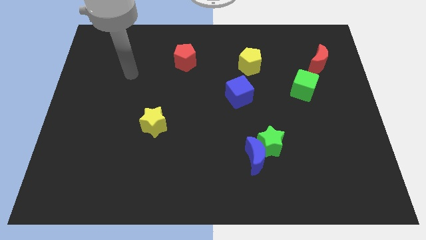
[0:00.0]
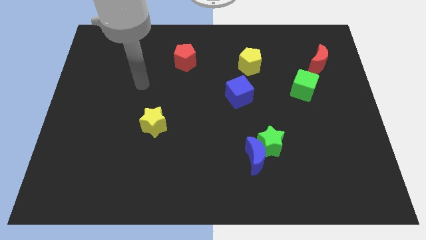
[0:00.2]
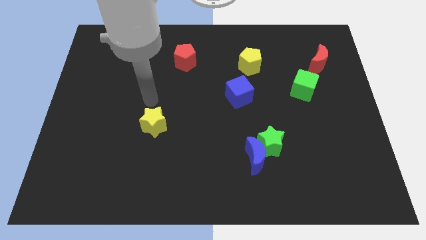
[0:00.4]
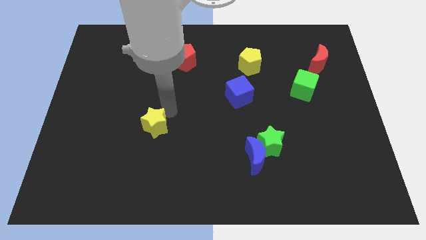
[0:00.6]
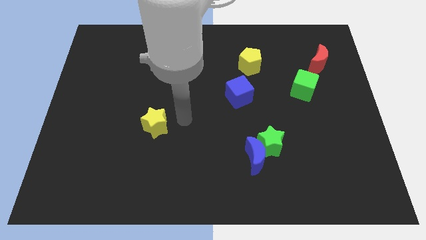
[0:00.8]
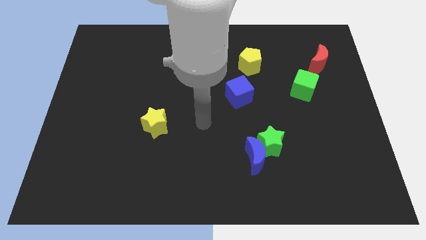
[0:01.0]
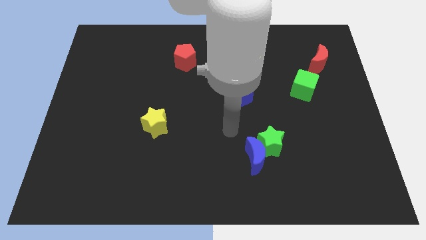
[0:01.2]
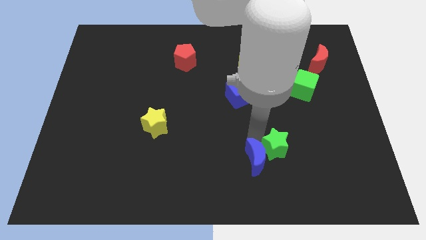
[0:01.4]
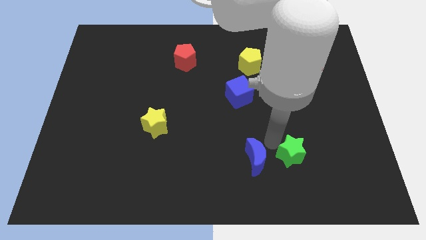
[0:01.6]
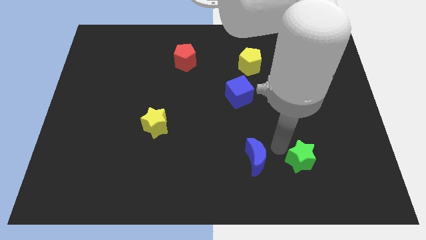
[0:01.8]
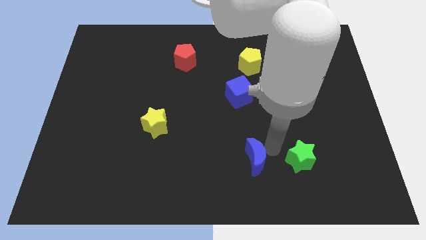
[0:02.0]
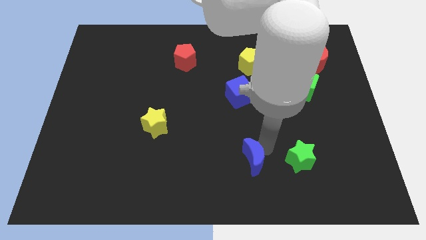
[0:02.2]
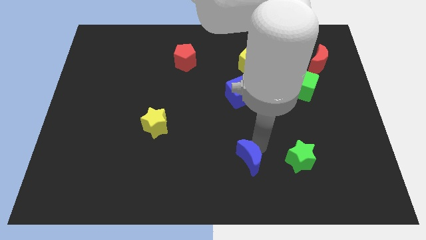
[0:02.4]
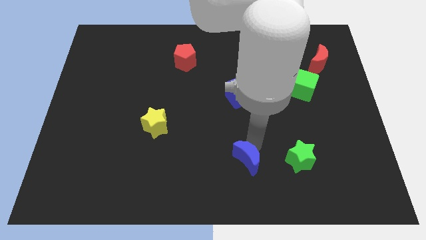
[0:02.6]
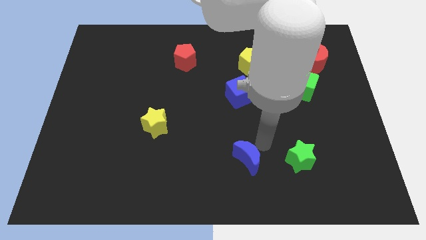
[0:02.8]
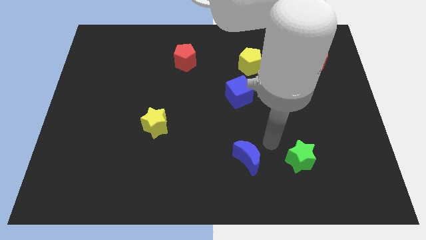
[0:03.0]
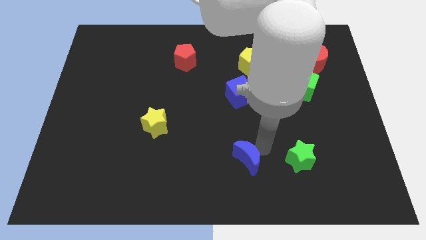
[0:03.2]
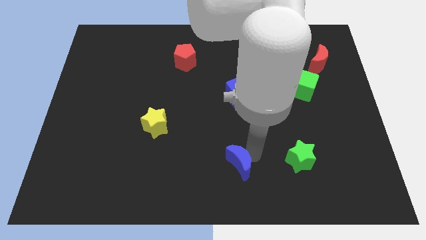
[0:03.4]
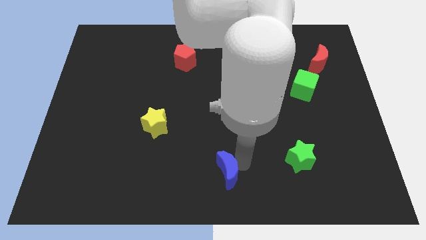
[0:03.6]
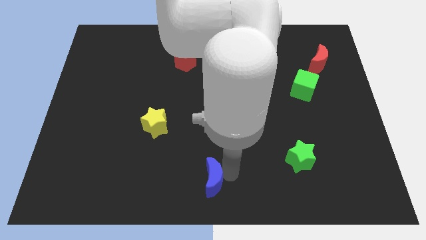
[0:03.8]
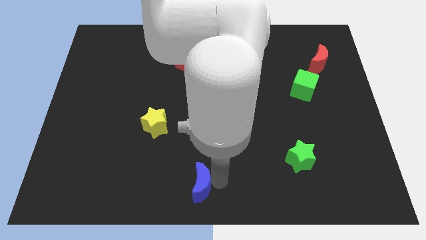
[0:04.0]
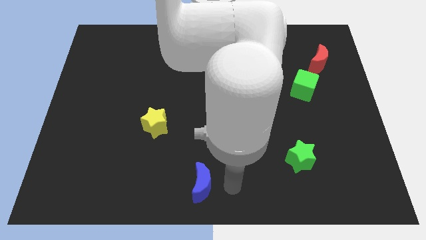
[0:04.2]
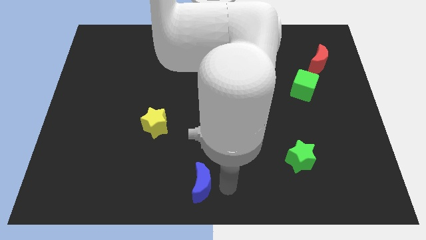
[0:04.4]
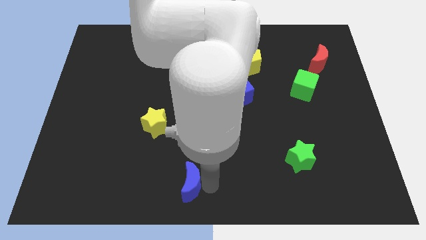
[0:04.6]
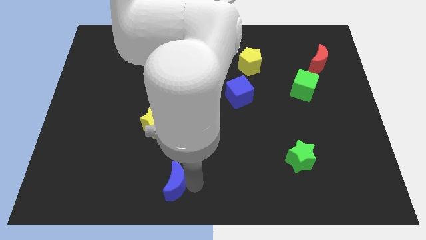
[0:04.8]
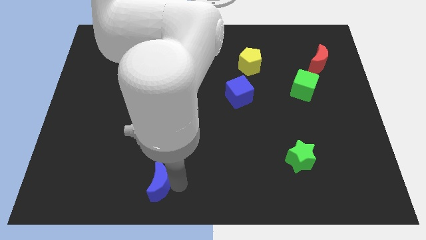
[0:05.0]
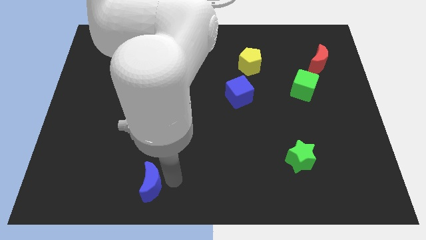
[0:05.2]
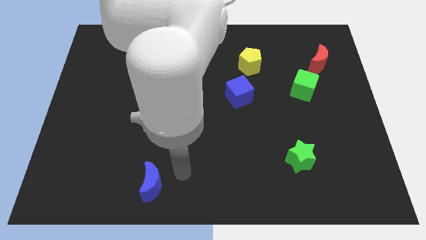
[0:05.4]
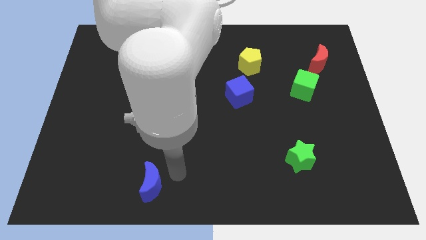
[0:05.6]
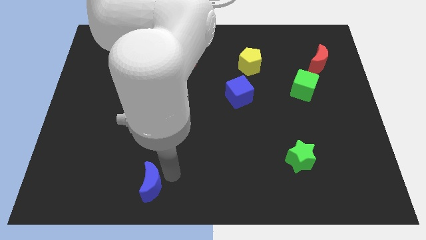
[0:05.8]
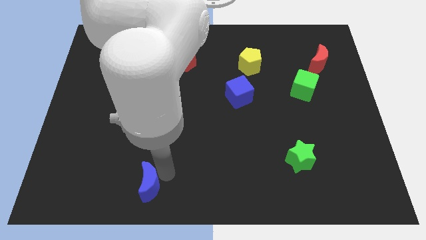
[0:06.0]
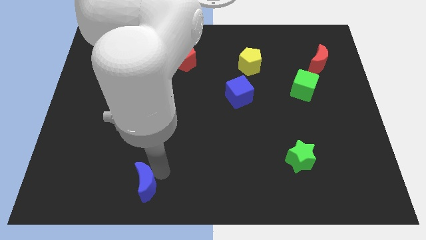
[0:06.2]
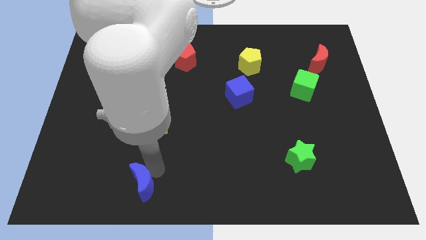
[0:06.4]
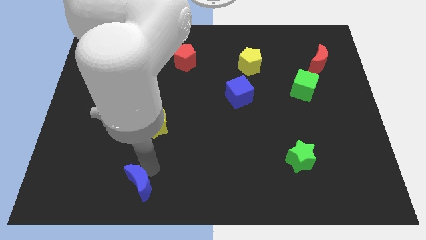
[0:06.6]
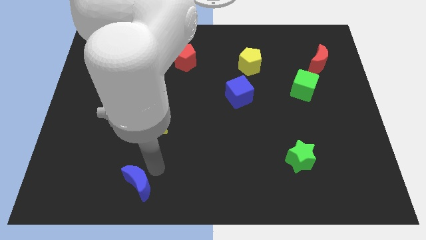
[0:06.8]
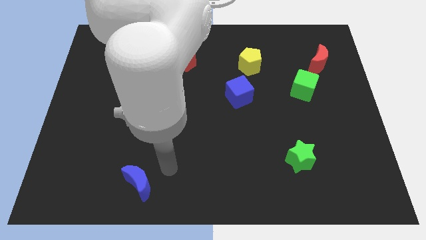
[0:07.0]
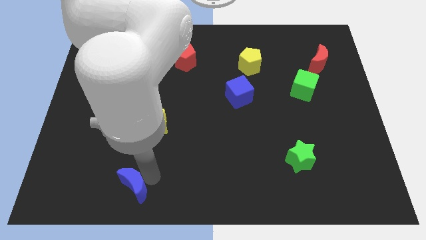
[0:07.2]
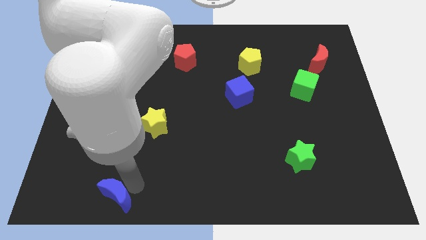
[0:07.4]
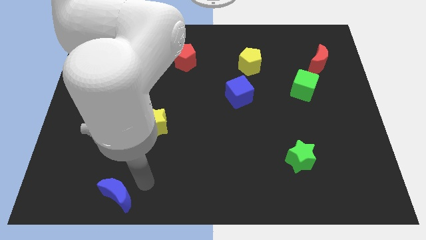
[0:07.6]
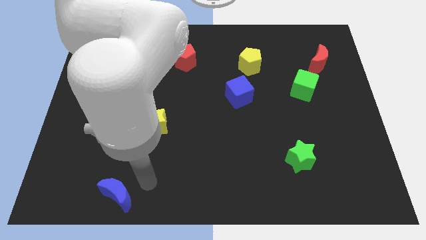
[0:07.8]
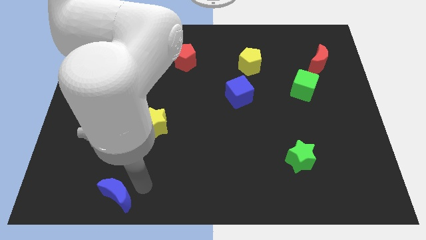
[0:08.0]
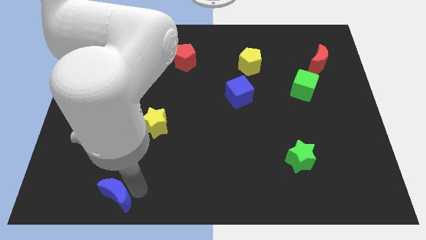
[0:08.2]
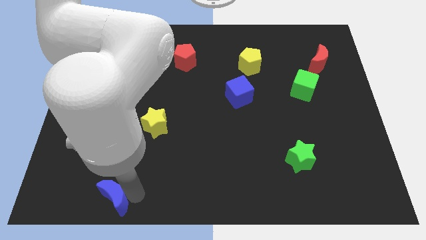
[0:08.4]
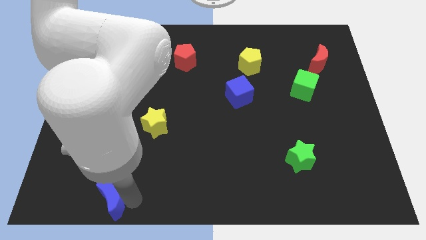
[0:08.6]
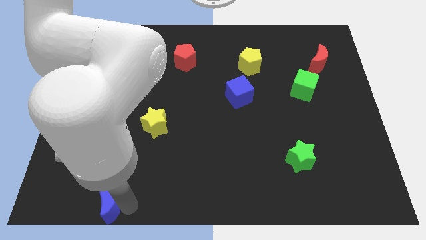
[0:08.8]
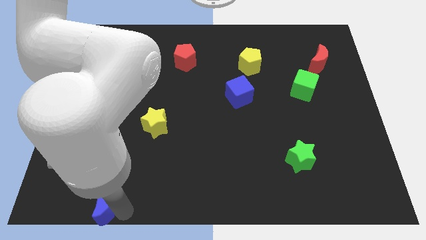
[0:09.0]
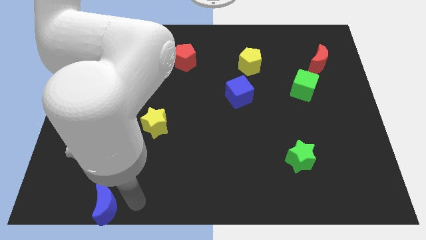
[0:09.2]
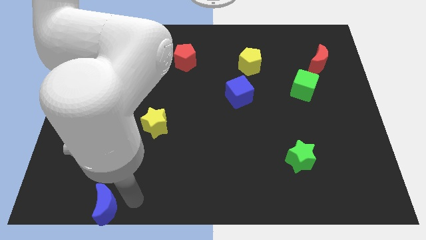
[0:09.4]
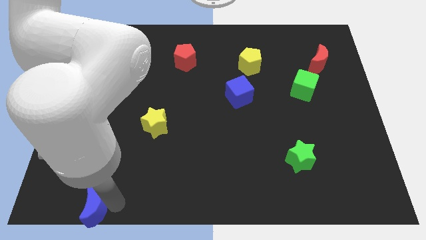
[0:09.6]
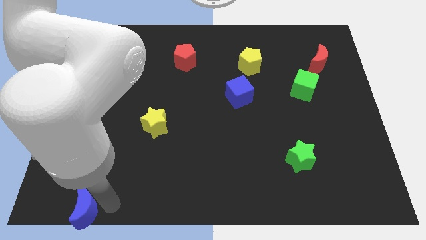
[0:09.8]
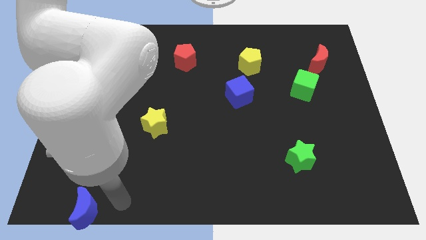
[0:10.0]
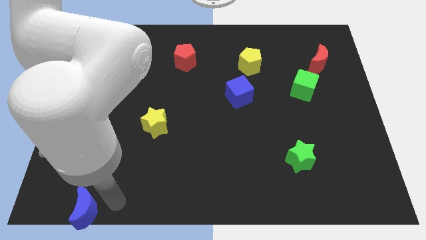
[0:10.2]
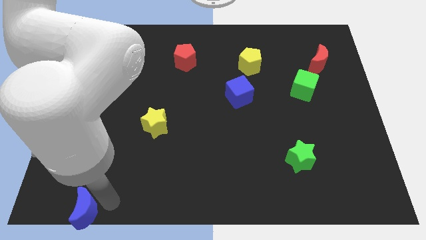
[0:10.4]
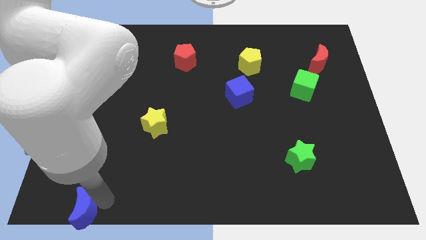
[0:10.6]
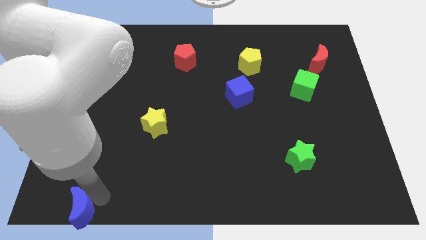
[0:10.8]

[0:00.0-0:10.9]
slide the blue moon to the bottom left corner

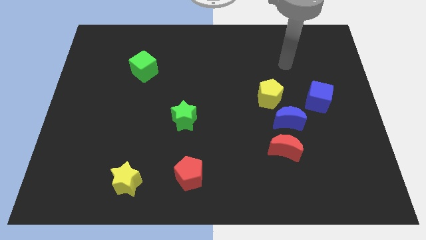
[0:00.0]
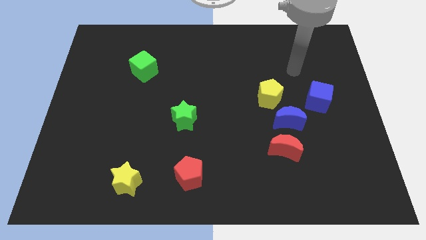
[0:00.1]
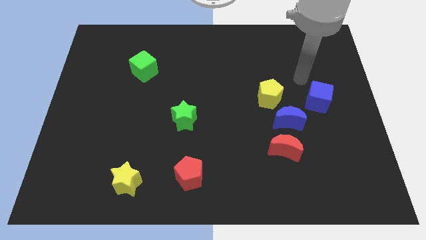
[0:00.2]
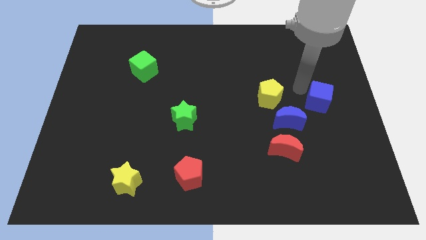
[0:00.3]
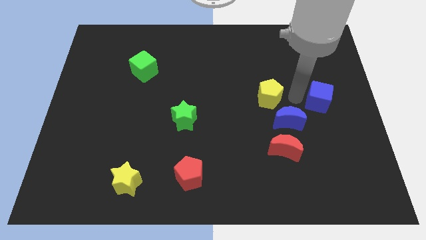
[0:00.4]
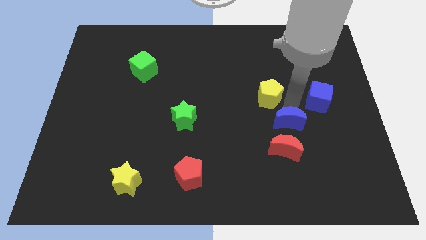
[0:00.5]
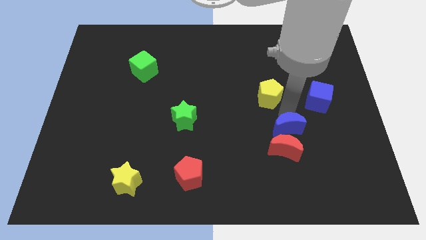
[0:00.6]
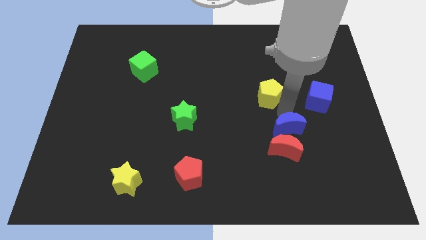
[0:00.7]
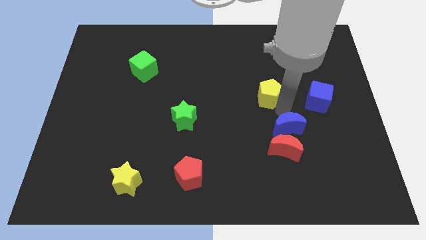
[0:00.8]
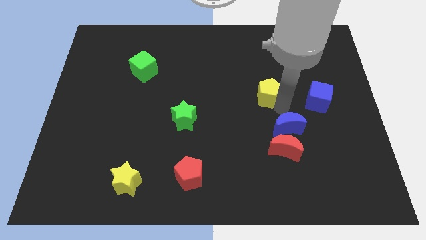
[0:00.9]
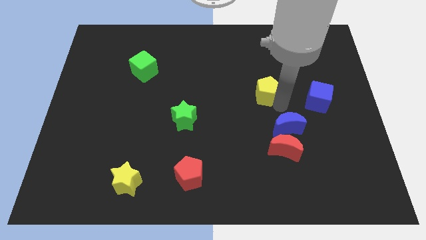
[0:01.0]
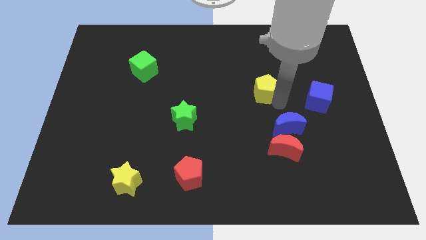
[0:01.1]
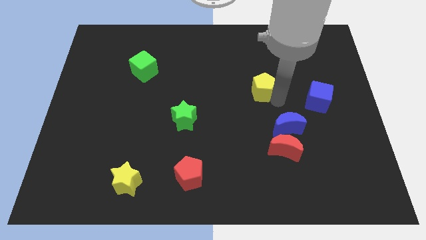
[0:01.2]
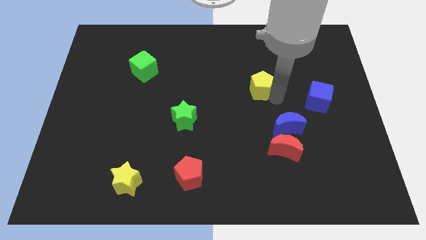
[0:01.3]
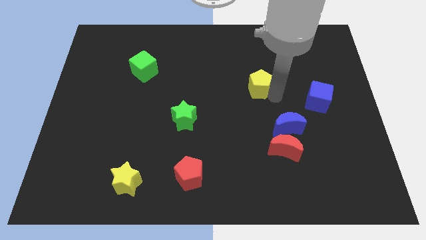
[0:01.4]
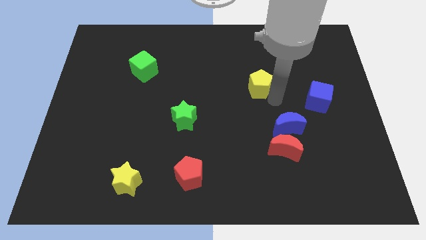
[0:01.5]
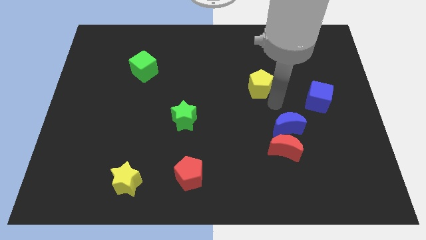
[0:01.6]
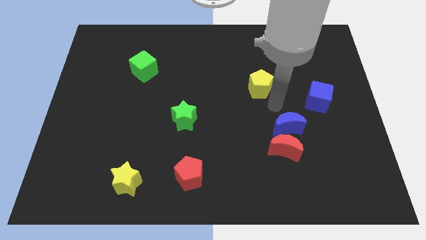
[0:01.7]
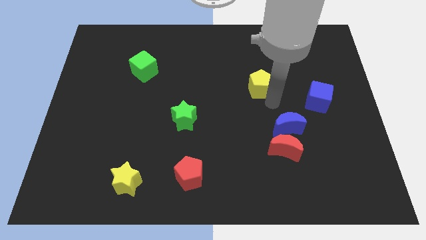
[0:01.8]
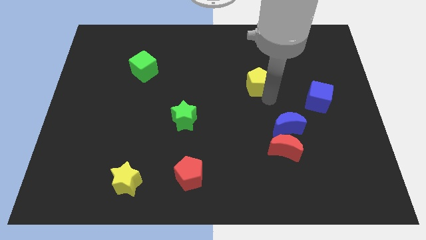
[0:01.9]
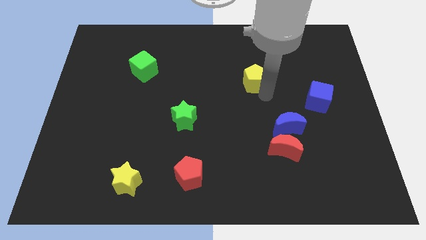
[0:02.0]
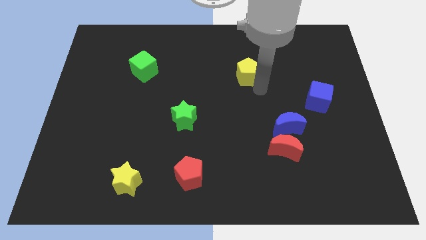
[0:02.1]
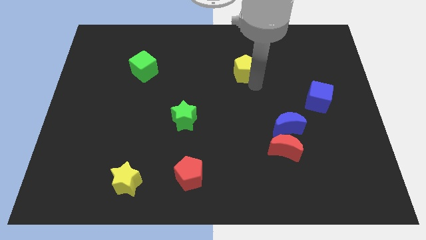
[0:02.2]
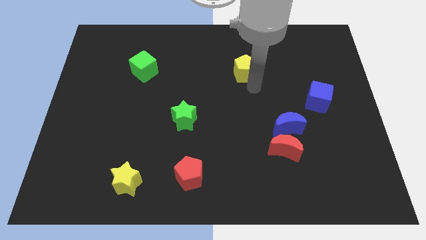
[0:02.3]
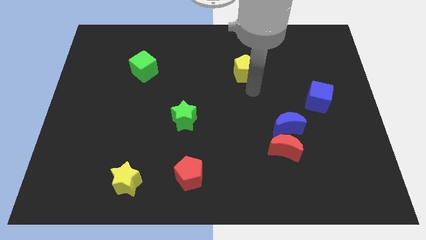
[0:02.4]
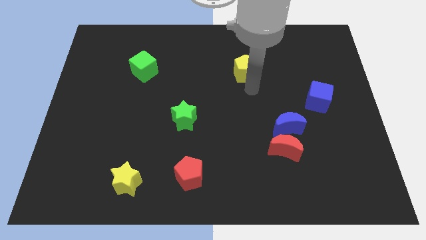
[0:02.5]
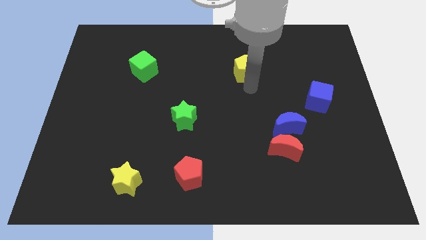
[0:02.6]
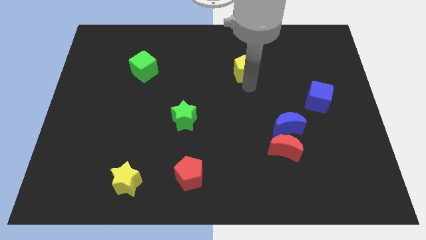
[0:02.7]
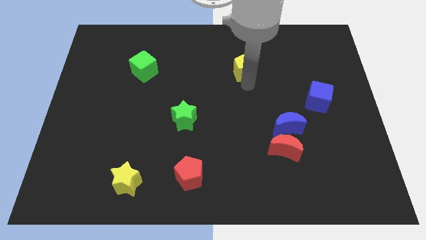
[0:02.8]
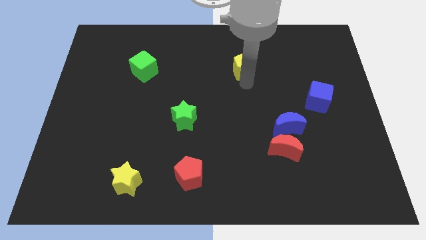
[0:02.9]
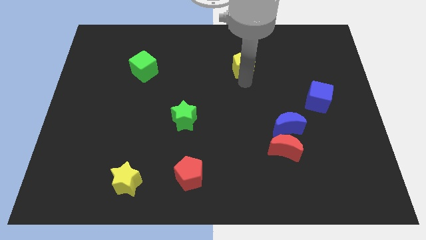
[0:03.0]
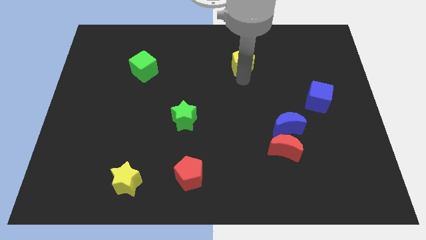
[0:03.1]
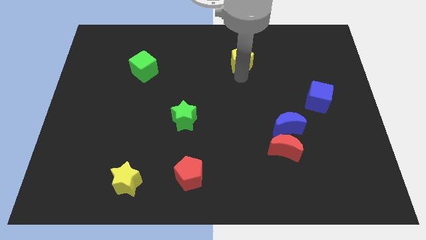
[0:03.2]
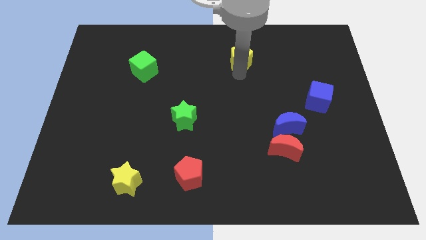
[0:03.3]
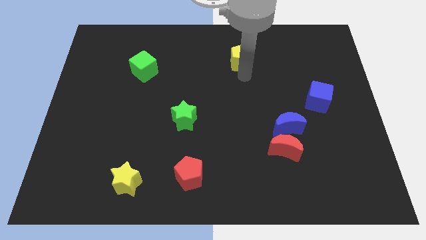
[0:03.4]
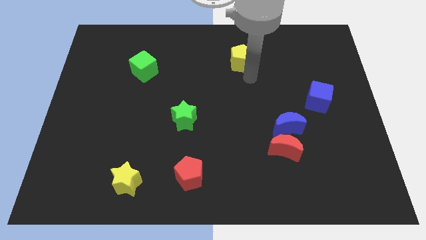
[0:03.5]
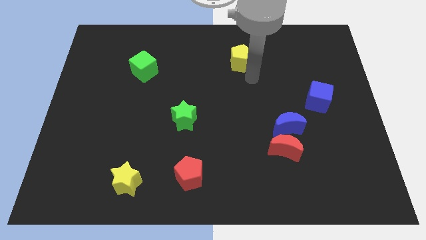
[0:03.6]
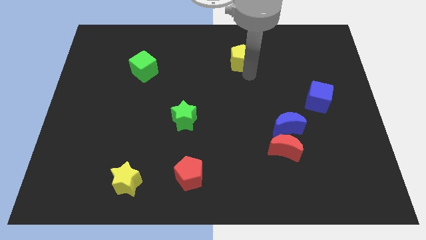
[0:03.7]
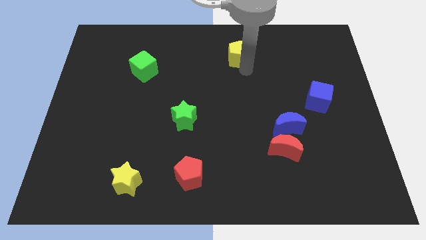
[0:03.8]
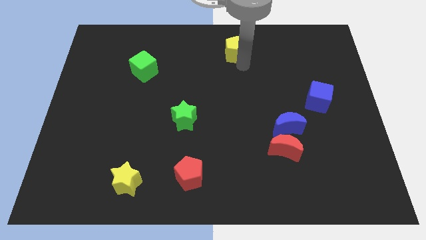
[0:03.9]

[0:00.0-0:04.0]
slide the yellow pentagon to the top
